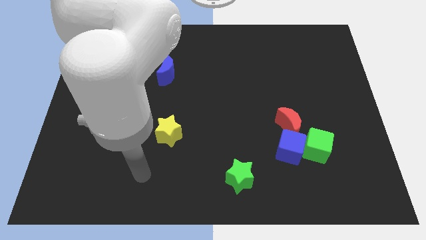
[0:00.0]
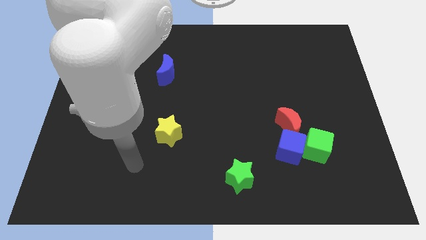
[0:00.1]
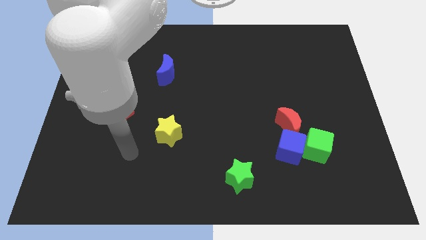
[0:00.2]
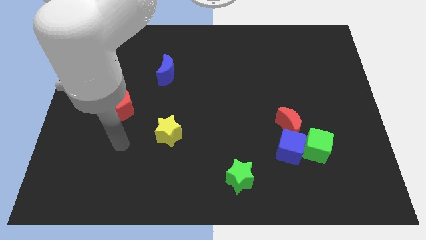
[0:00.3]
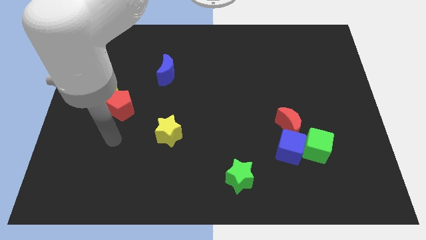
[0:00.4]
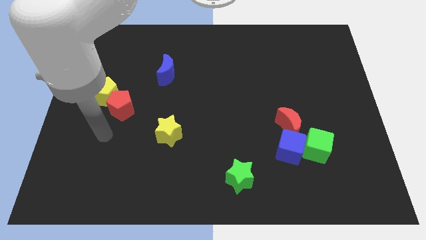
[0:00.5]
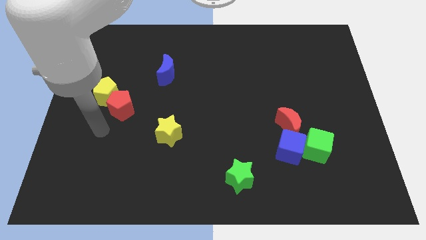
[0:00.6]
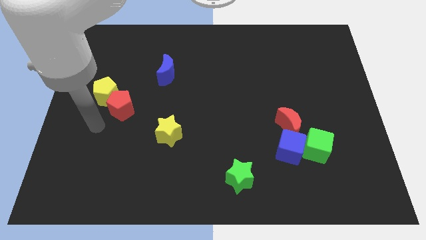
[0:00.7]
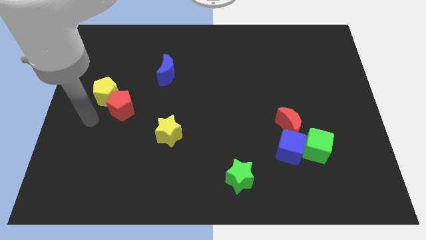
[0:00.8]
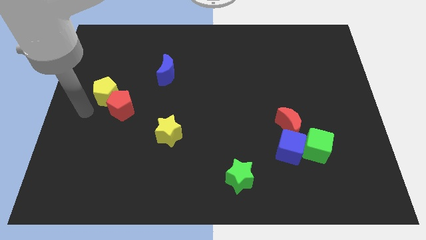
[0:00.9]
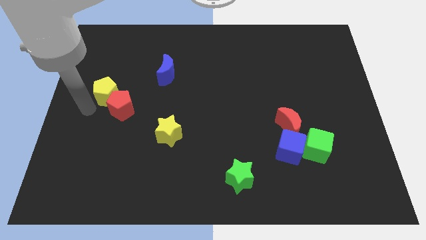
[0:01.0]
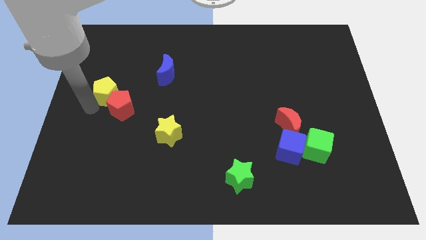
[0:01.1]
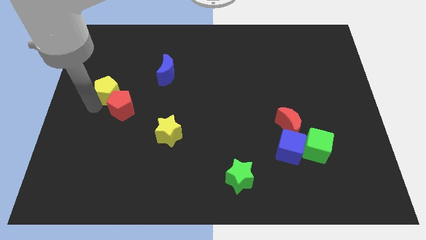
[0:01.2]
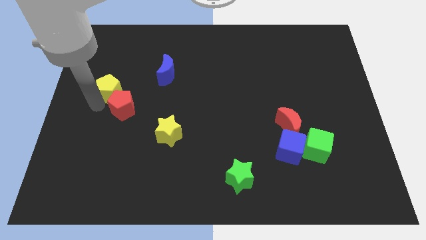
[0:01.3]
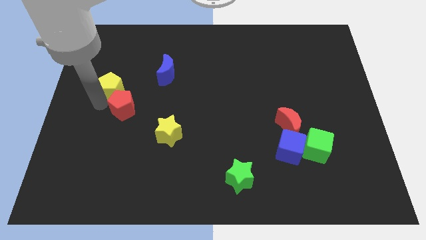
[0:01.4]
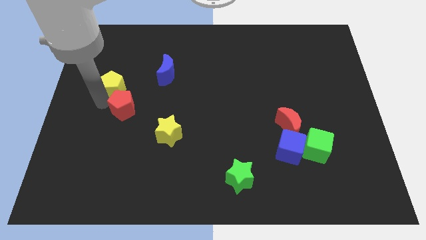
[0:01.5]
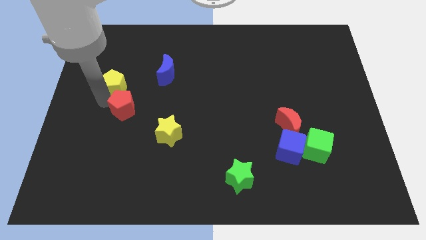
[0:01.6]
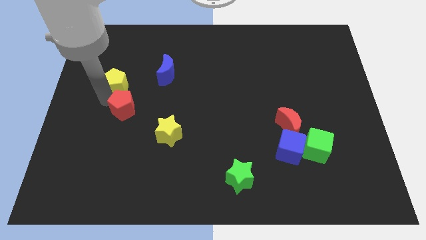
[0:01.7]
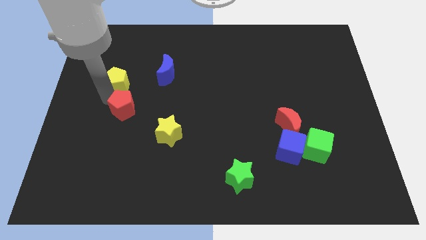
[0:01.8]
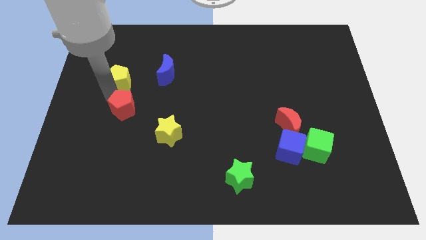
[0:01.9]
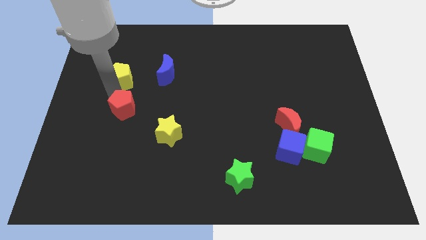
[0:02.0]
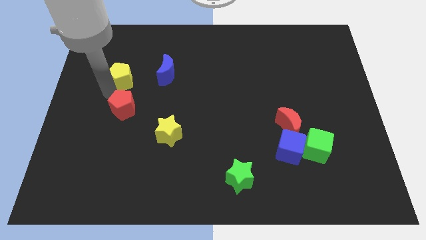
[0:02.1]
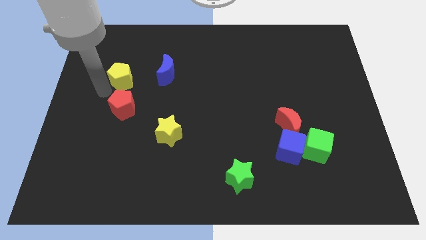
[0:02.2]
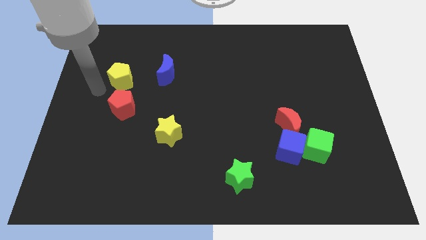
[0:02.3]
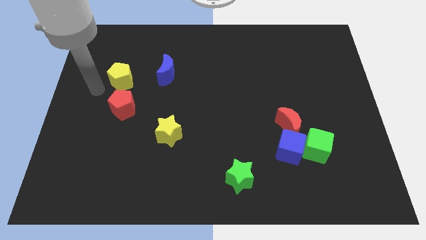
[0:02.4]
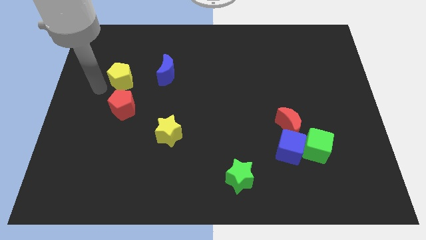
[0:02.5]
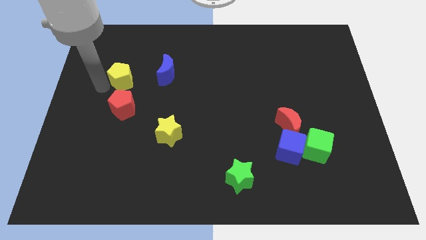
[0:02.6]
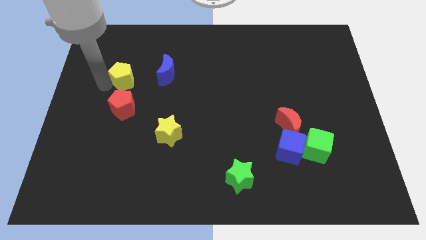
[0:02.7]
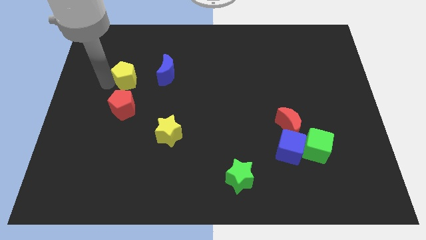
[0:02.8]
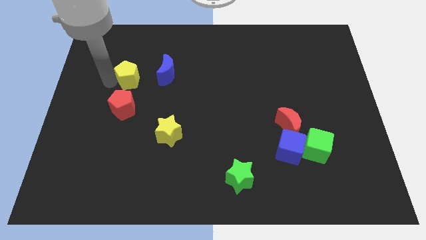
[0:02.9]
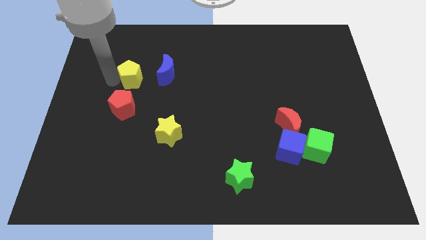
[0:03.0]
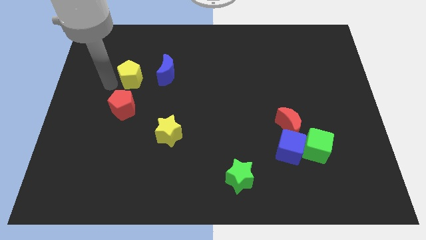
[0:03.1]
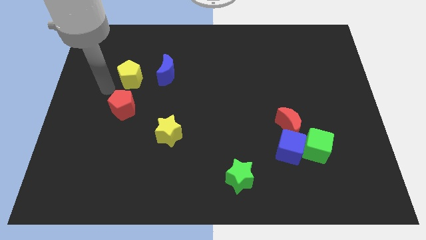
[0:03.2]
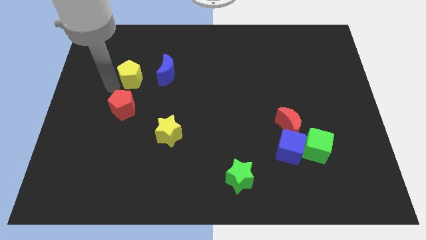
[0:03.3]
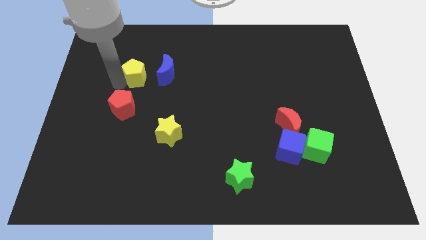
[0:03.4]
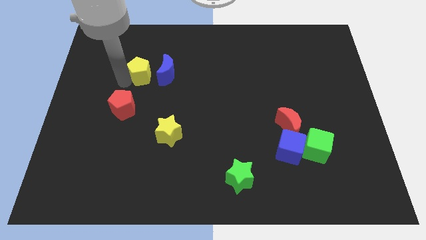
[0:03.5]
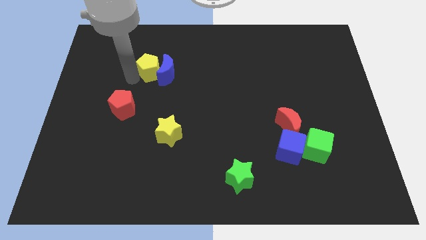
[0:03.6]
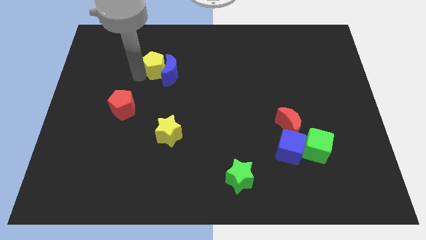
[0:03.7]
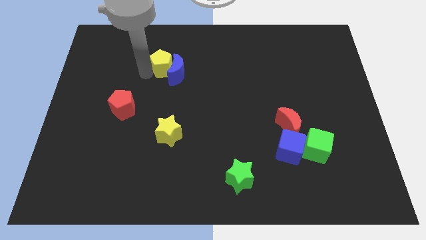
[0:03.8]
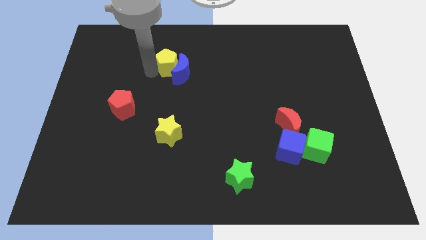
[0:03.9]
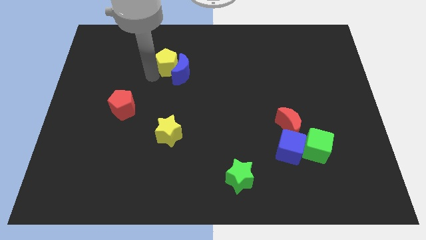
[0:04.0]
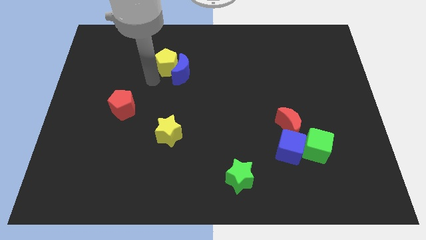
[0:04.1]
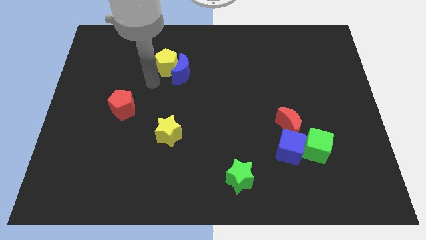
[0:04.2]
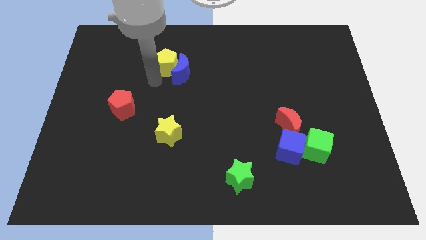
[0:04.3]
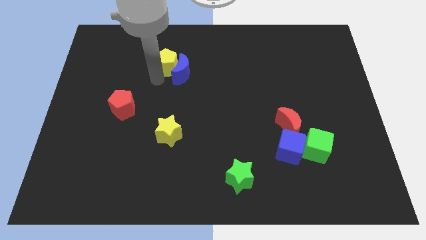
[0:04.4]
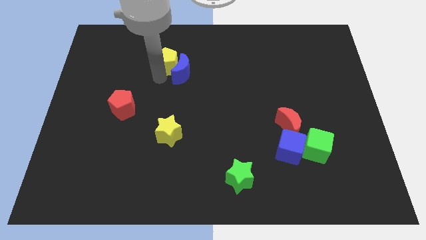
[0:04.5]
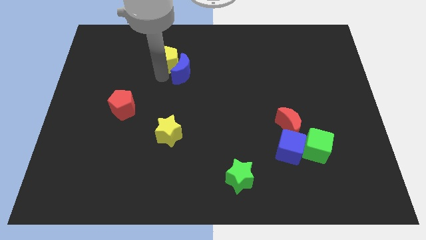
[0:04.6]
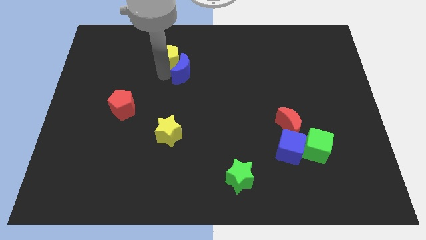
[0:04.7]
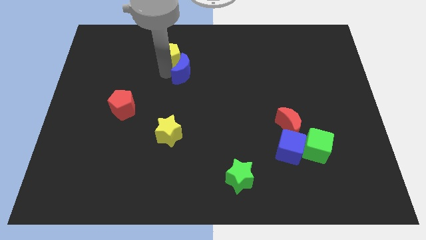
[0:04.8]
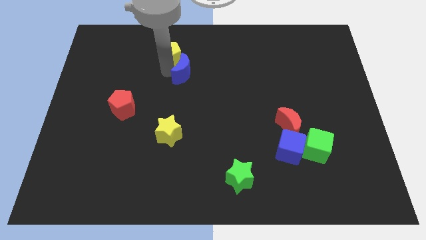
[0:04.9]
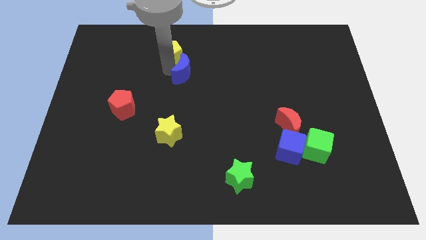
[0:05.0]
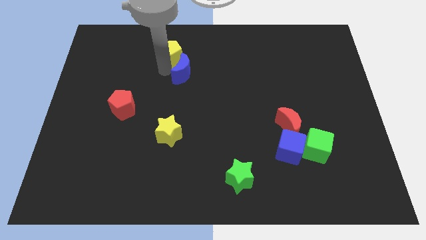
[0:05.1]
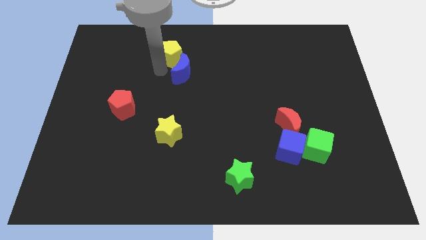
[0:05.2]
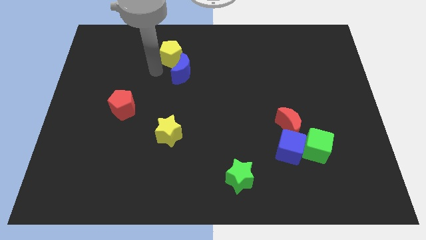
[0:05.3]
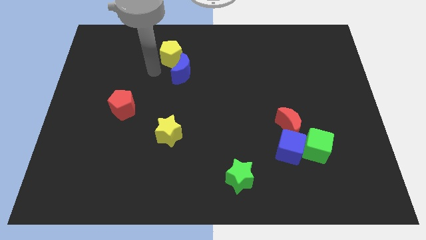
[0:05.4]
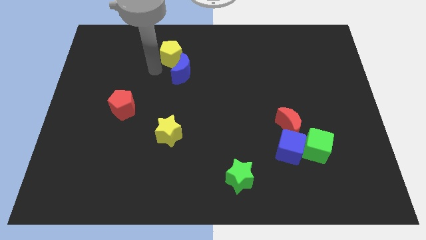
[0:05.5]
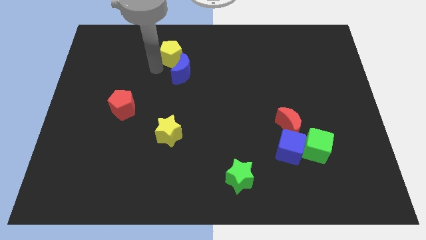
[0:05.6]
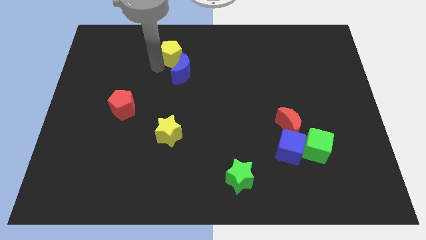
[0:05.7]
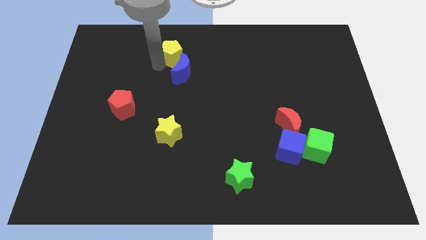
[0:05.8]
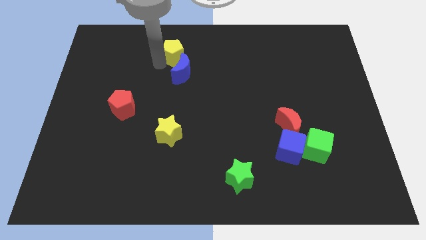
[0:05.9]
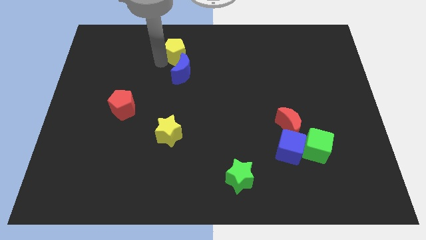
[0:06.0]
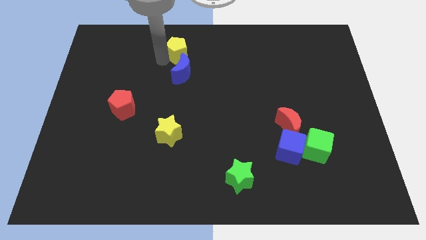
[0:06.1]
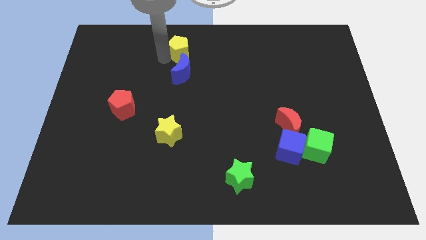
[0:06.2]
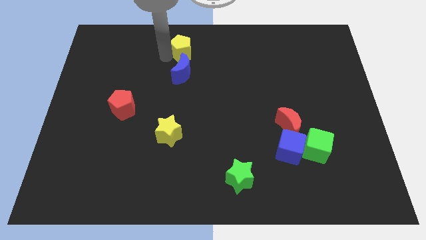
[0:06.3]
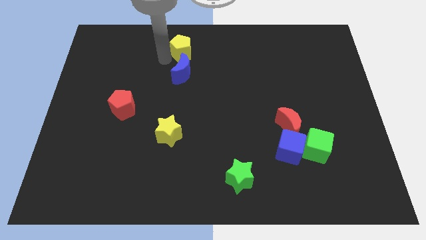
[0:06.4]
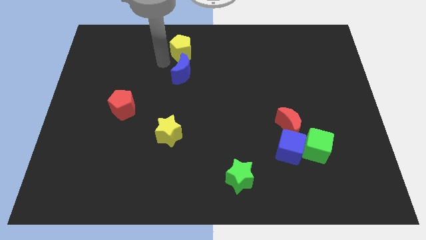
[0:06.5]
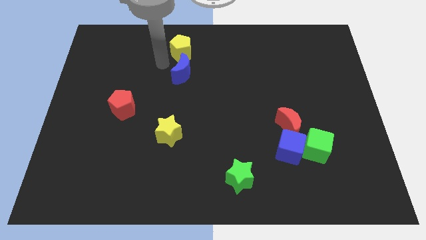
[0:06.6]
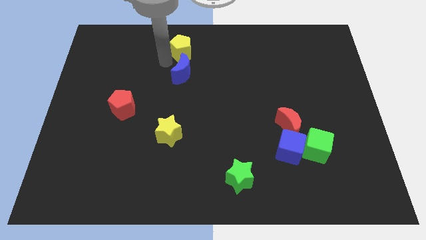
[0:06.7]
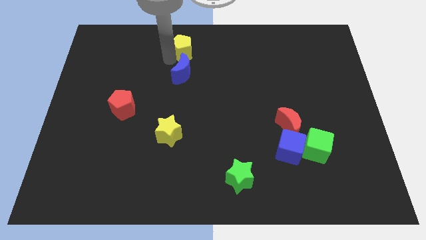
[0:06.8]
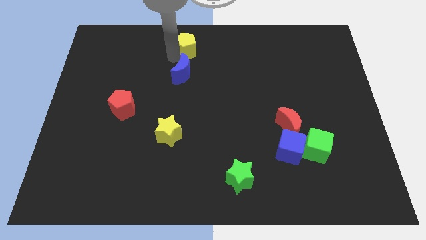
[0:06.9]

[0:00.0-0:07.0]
put the yellow pentagon to the top side
